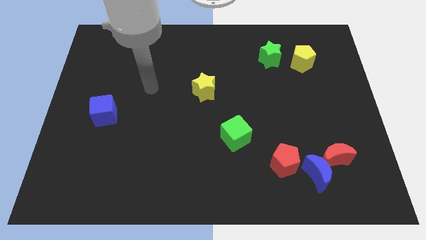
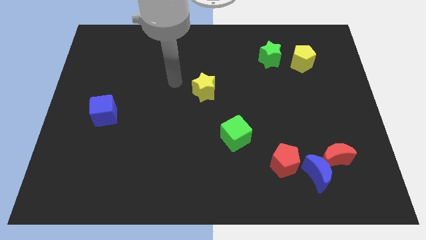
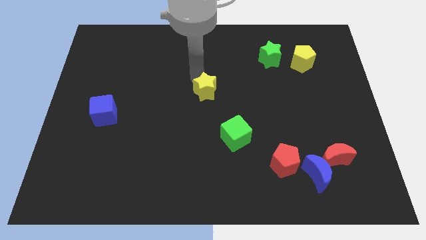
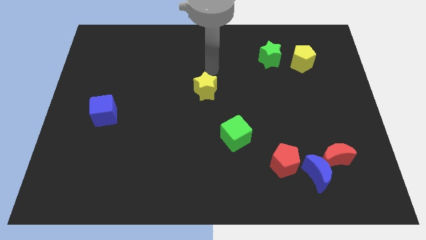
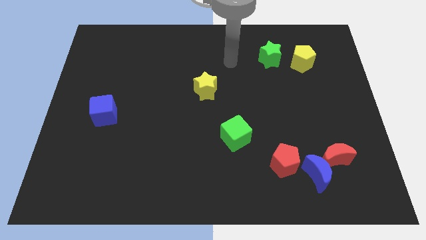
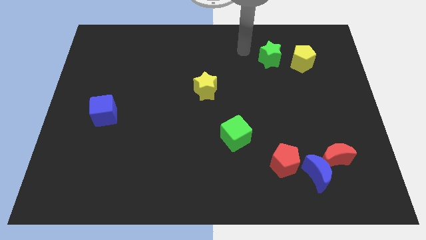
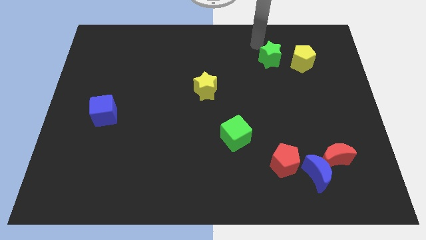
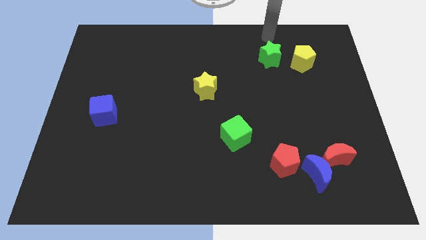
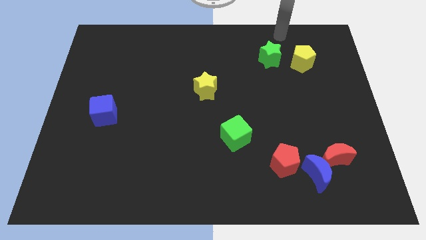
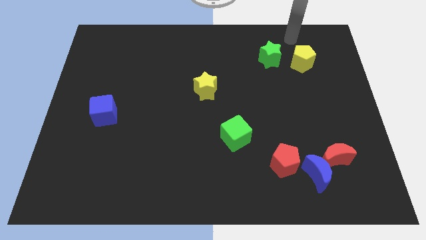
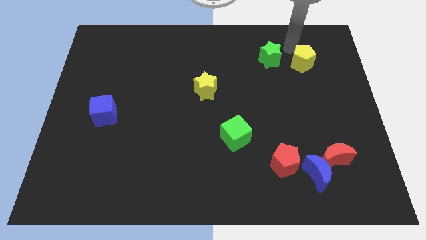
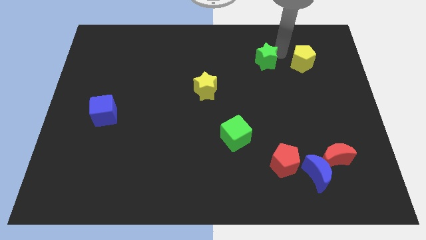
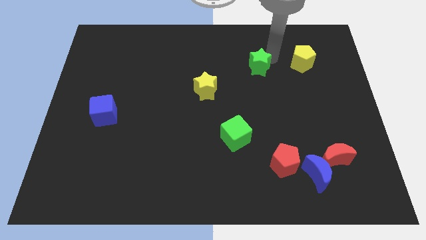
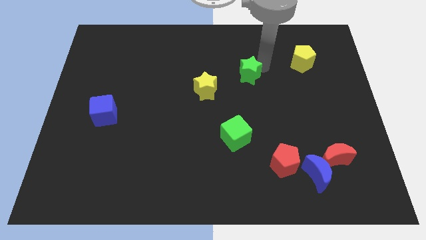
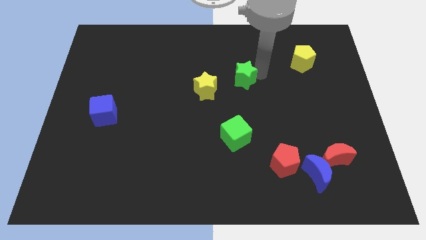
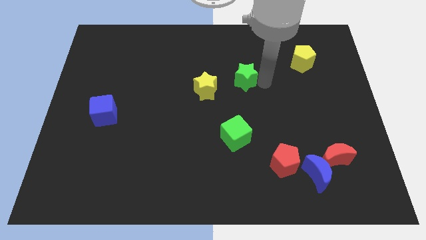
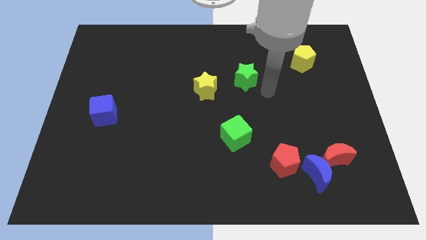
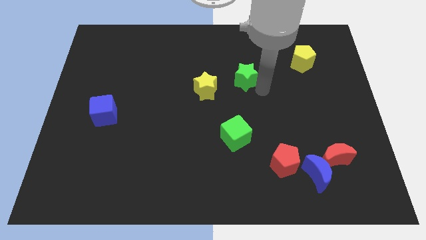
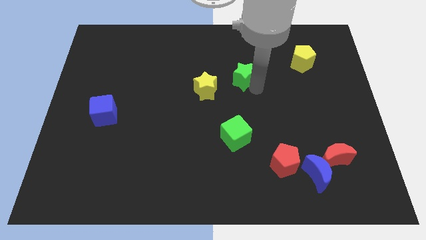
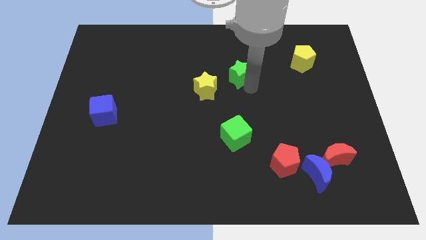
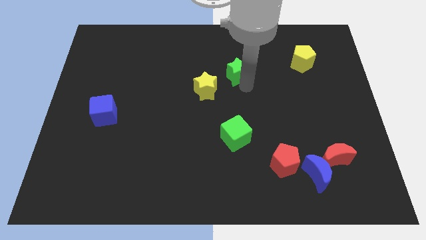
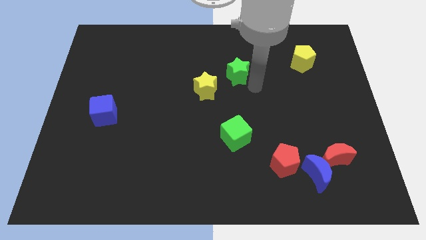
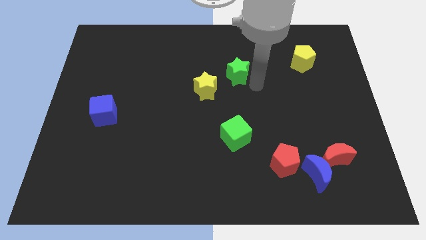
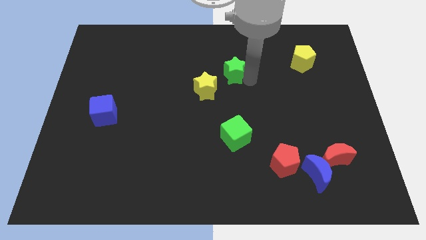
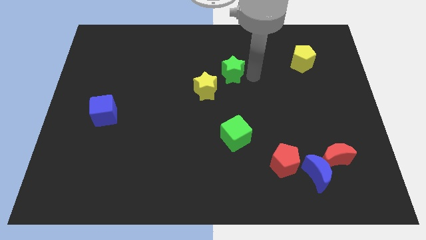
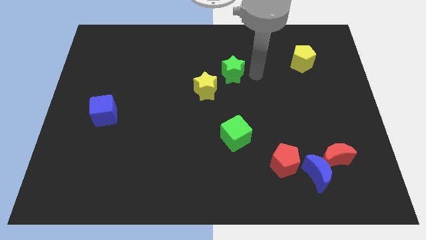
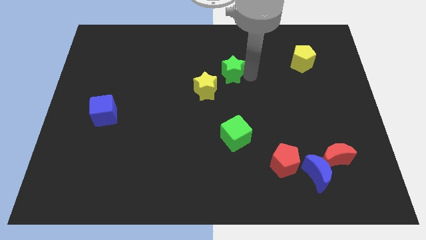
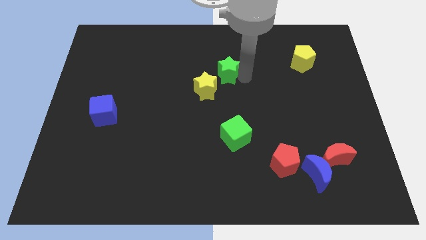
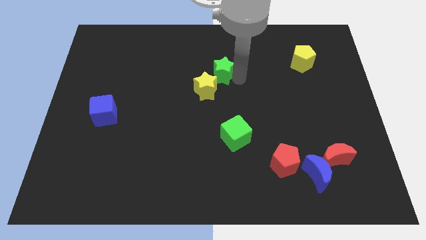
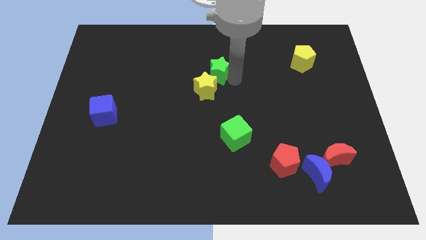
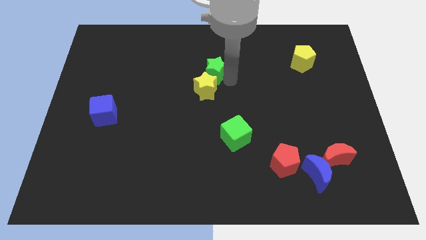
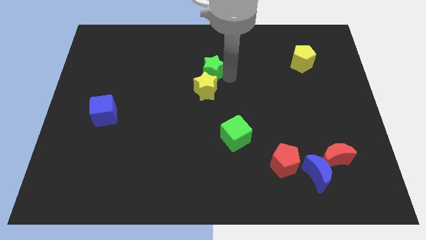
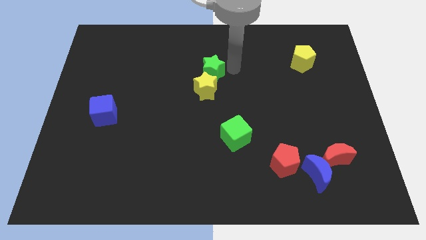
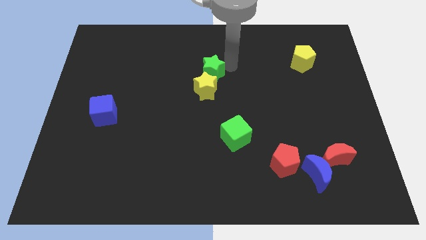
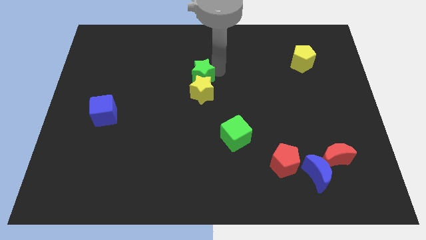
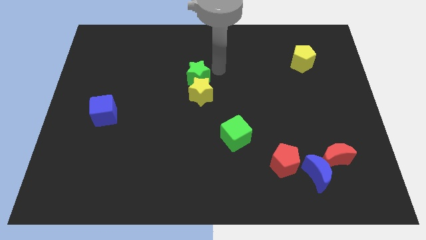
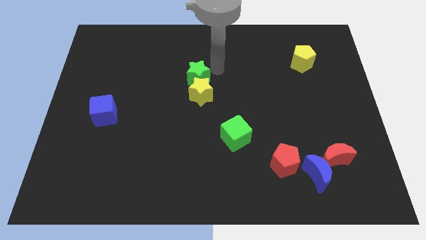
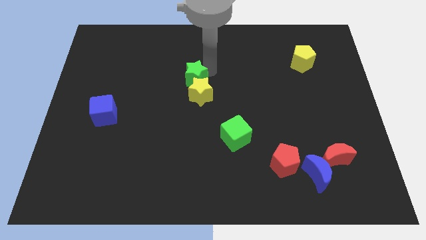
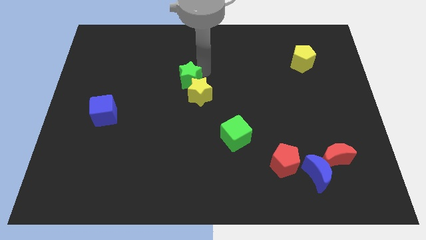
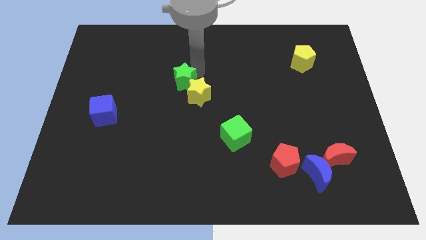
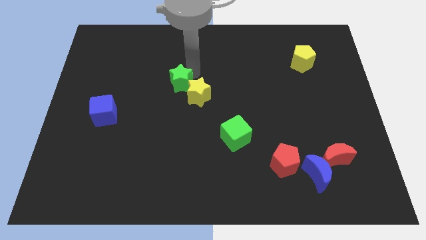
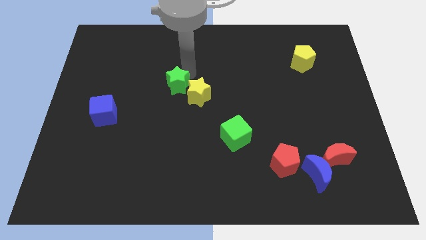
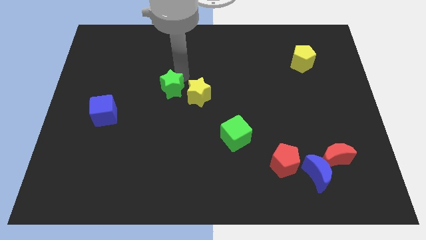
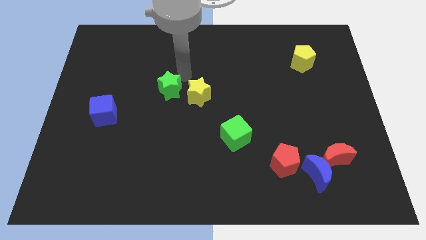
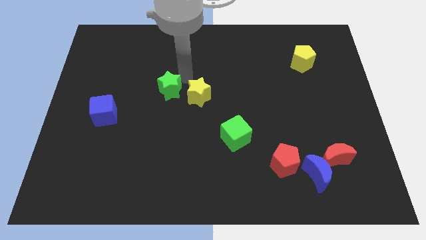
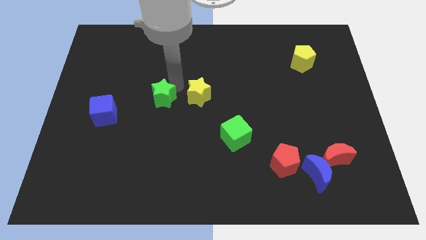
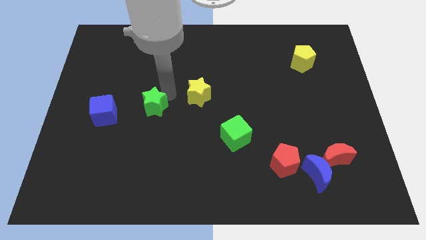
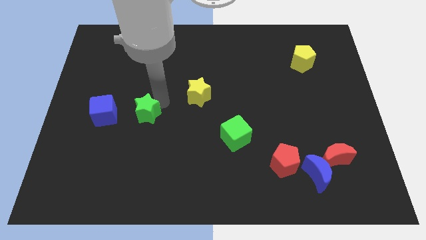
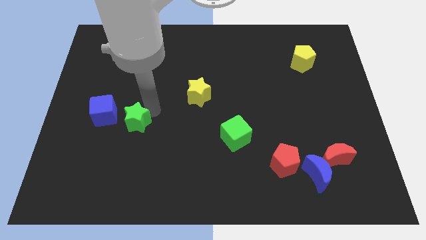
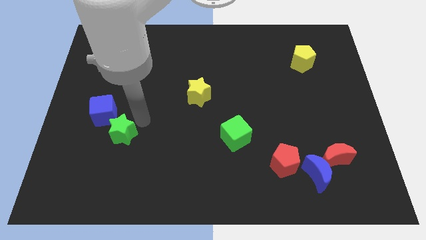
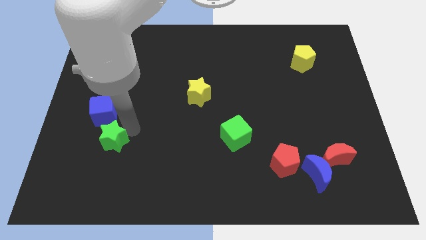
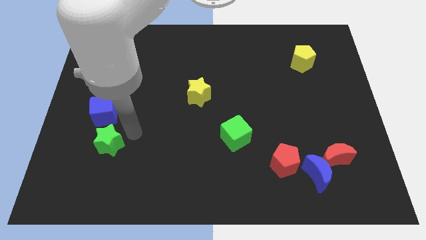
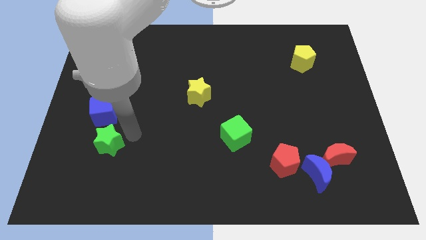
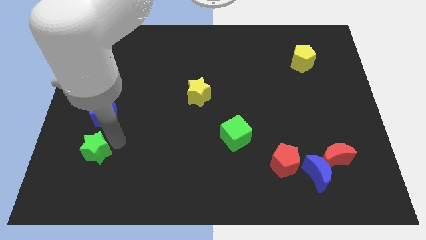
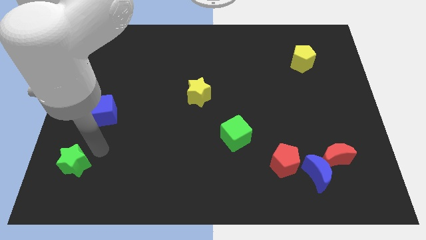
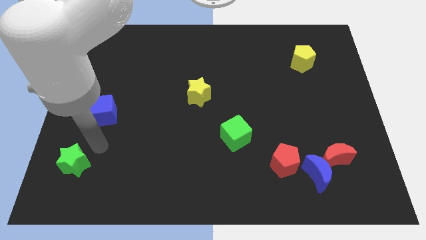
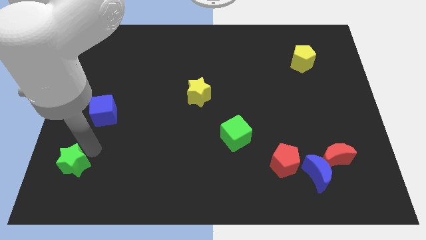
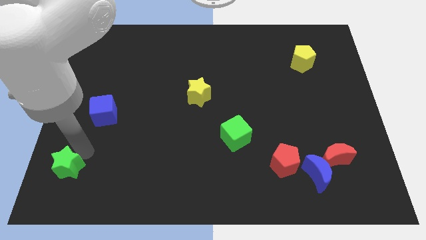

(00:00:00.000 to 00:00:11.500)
push the green star to the lower left corner

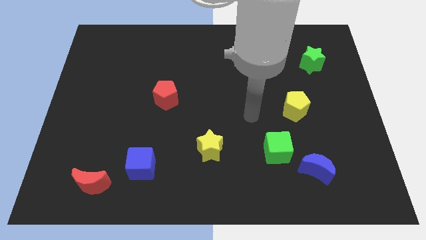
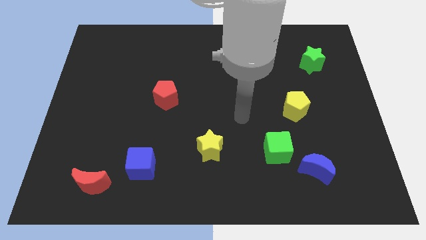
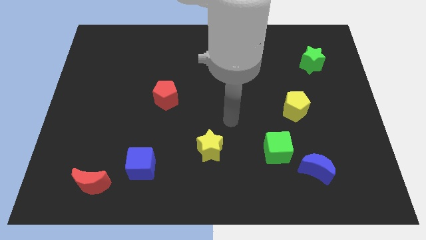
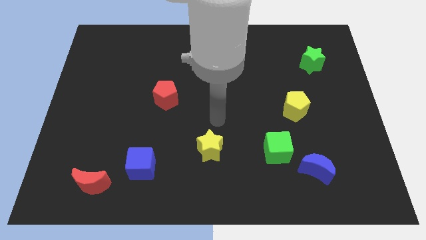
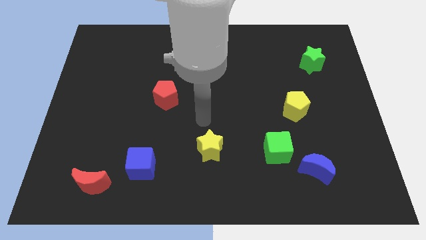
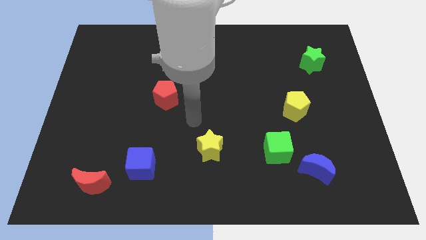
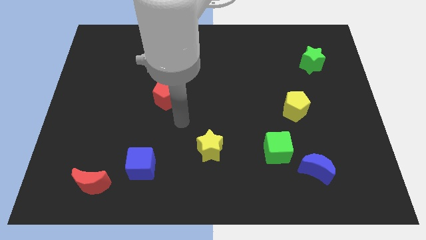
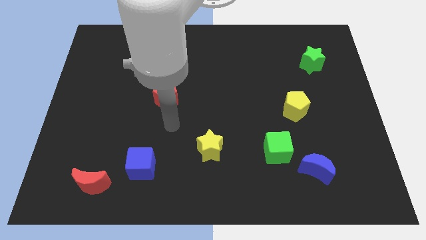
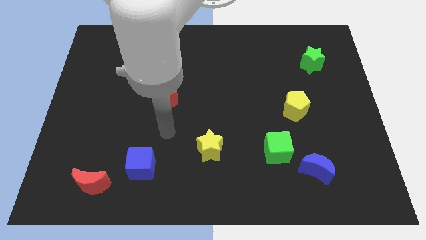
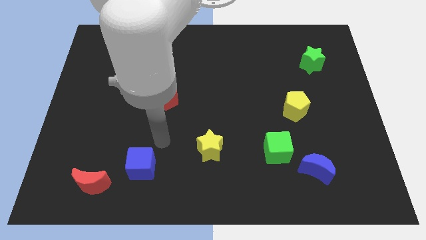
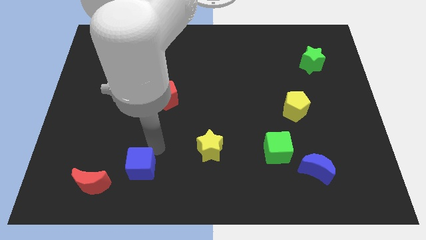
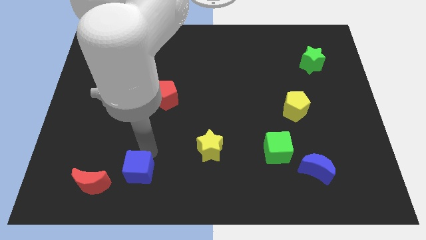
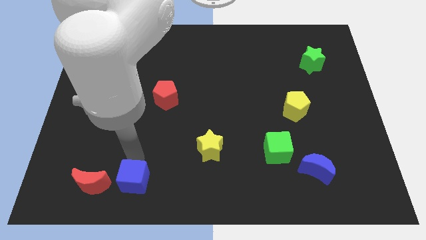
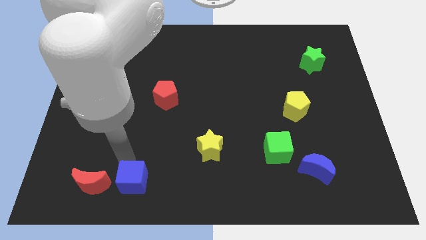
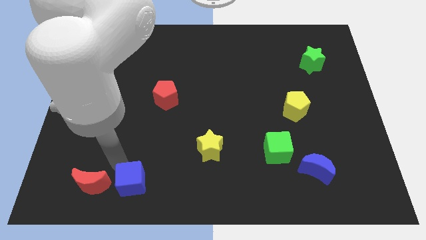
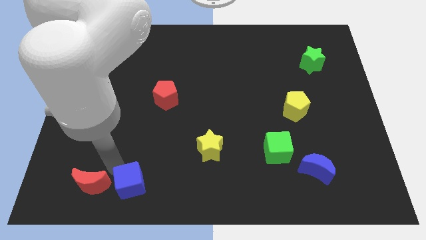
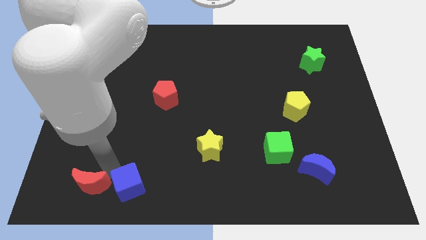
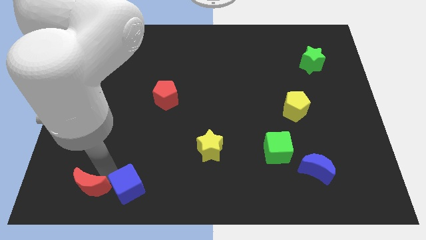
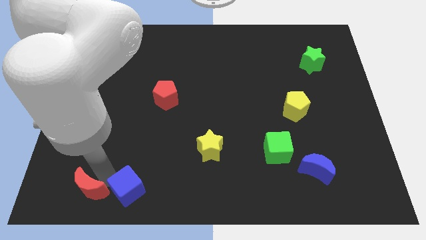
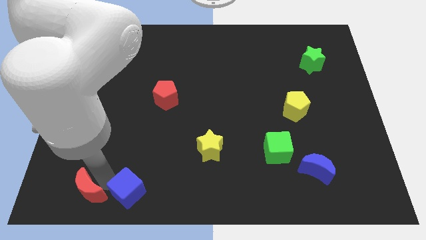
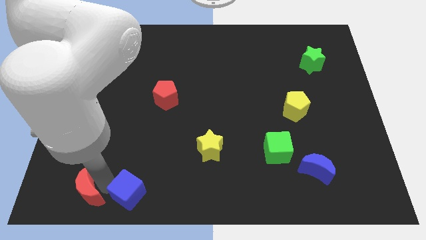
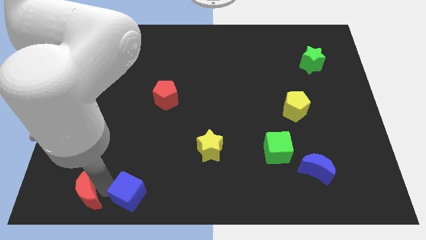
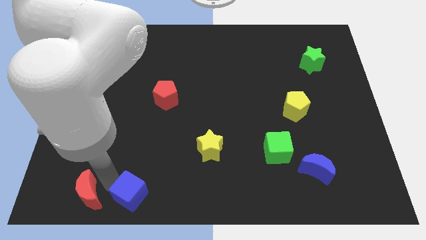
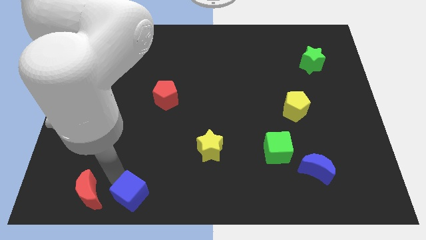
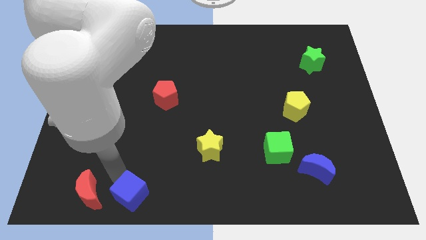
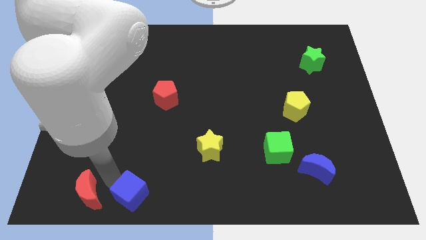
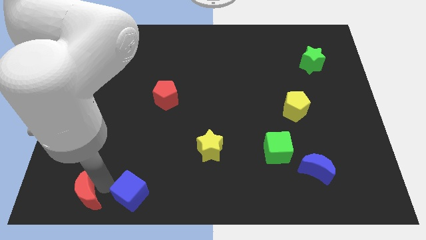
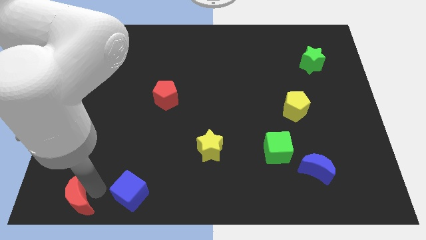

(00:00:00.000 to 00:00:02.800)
put the red moon to the bottom left of the board
